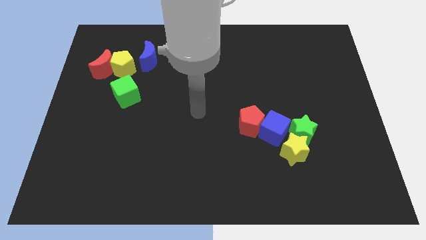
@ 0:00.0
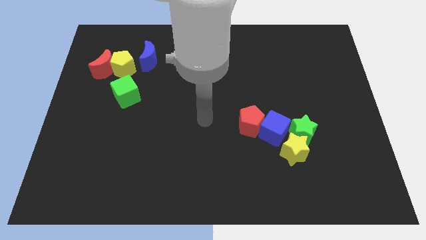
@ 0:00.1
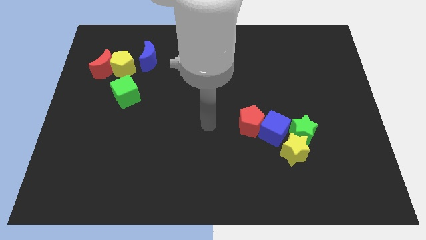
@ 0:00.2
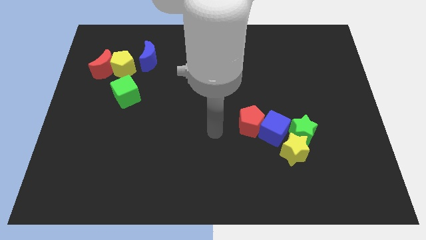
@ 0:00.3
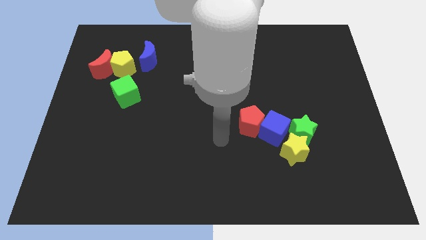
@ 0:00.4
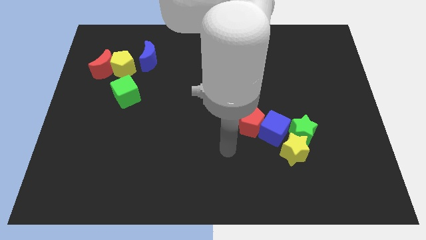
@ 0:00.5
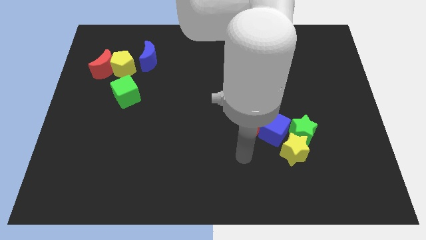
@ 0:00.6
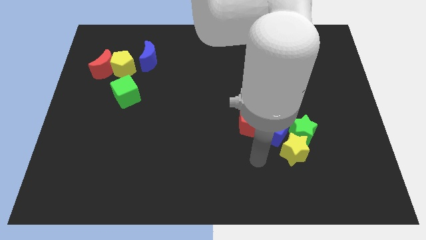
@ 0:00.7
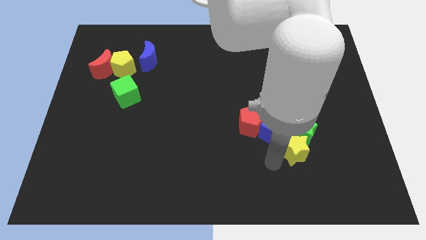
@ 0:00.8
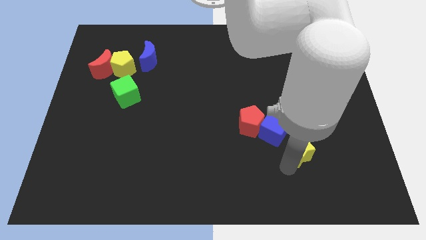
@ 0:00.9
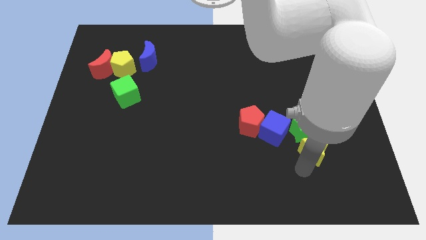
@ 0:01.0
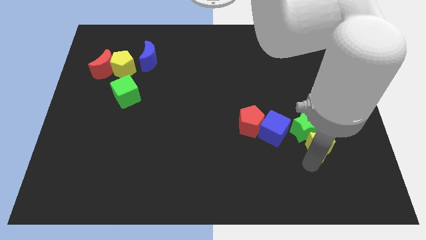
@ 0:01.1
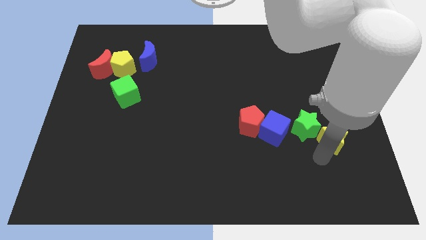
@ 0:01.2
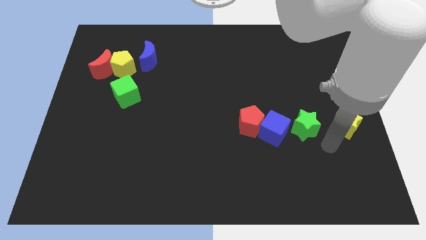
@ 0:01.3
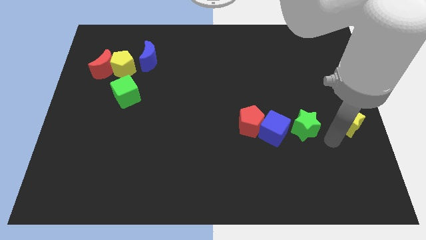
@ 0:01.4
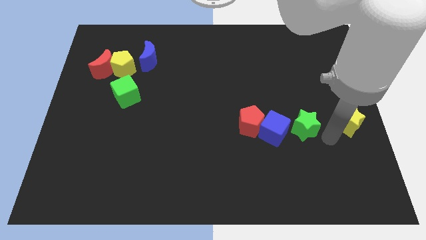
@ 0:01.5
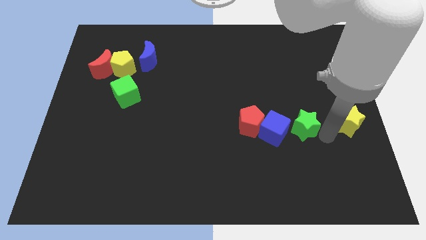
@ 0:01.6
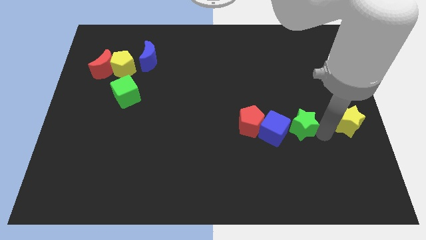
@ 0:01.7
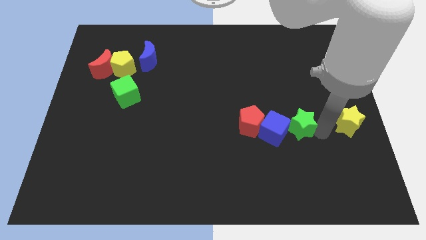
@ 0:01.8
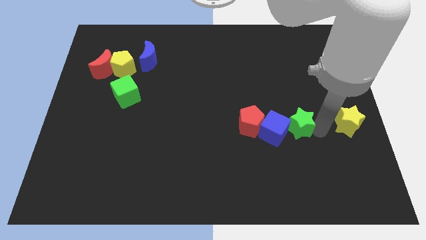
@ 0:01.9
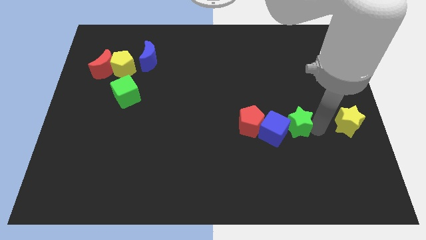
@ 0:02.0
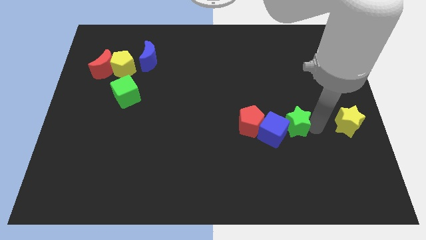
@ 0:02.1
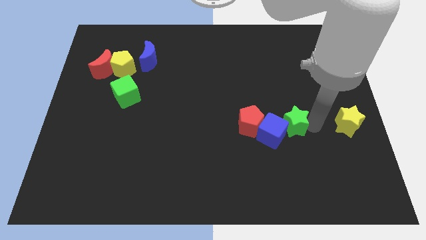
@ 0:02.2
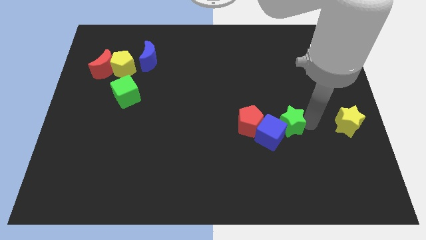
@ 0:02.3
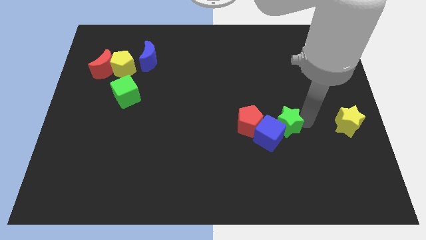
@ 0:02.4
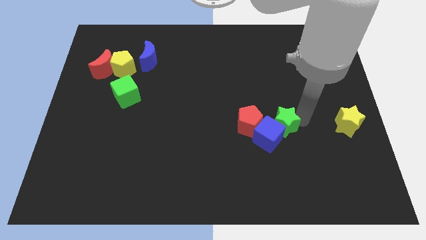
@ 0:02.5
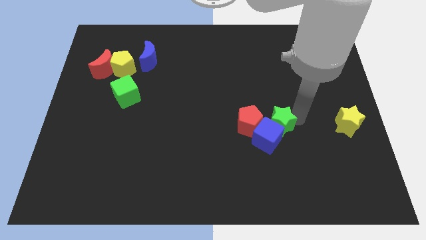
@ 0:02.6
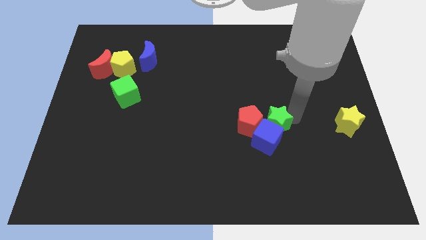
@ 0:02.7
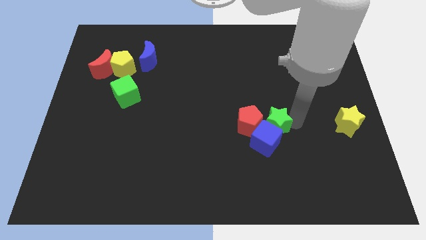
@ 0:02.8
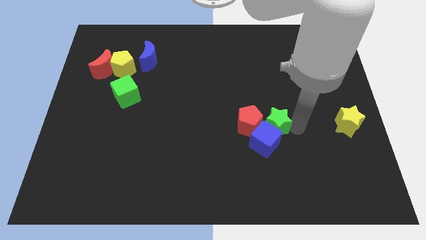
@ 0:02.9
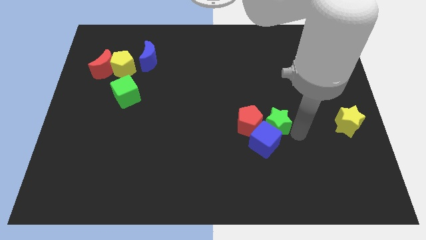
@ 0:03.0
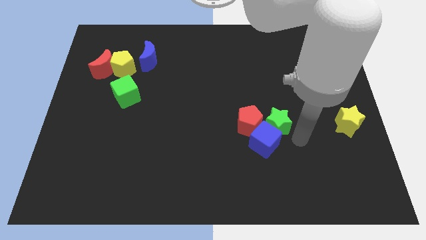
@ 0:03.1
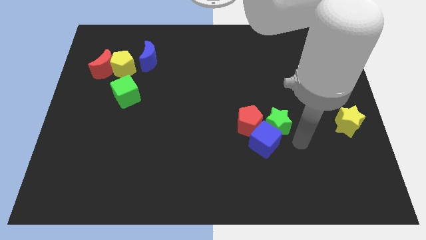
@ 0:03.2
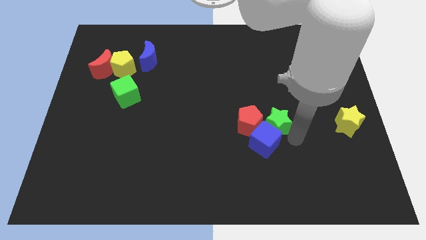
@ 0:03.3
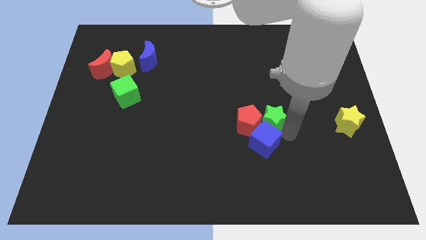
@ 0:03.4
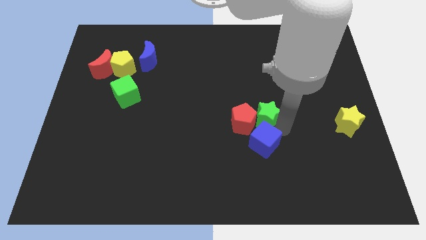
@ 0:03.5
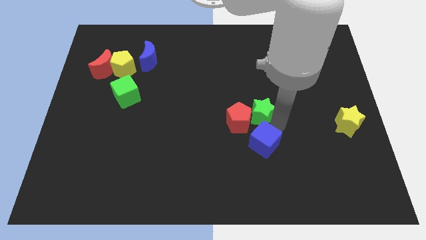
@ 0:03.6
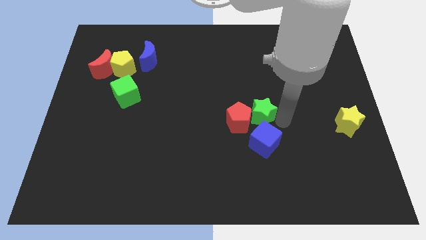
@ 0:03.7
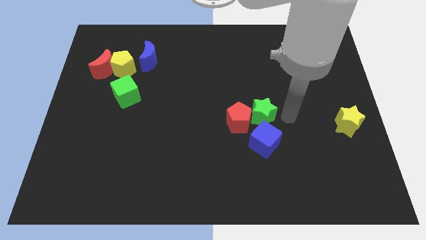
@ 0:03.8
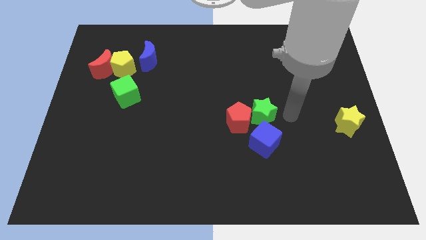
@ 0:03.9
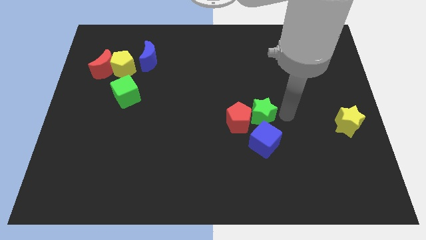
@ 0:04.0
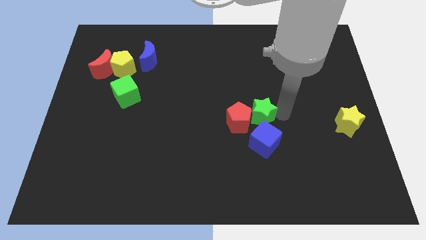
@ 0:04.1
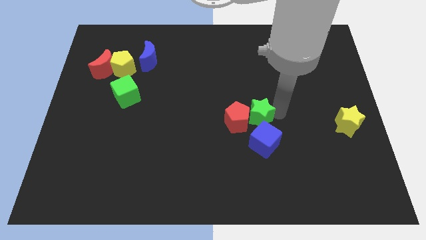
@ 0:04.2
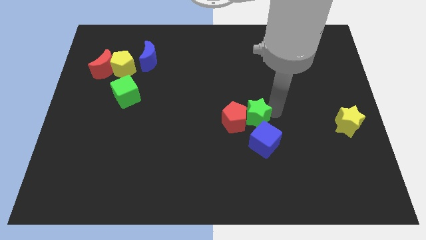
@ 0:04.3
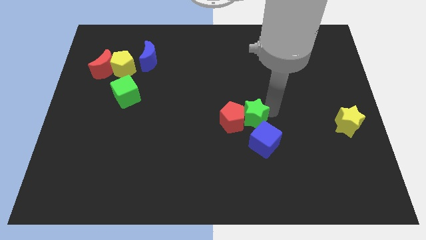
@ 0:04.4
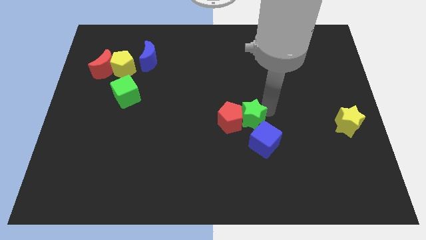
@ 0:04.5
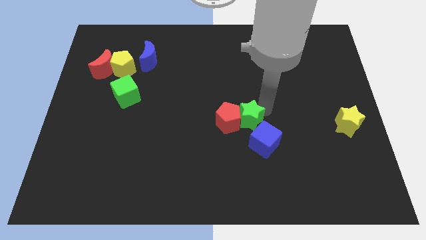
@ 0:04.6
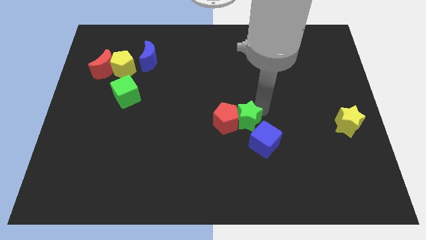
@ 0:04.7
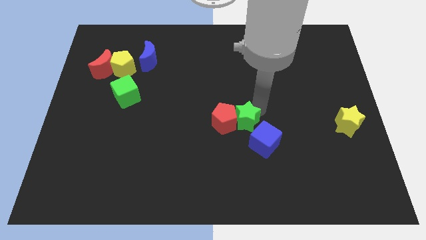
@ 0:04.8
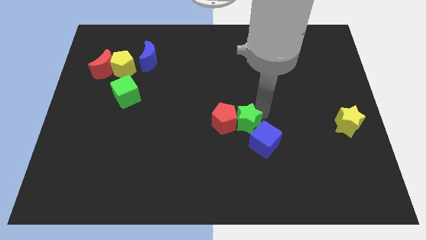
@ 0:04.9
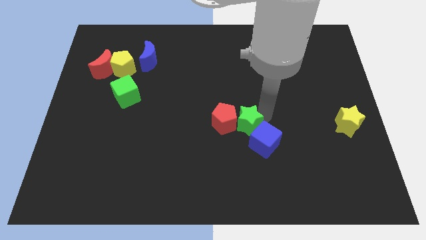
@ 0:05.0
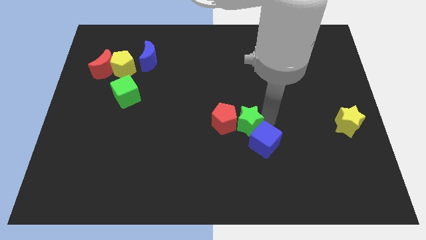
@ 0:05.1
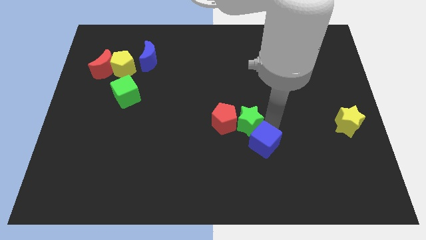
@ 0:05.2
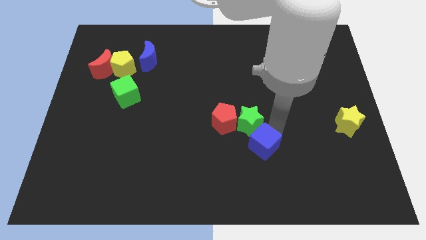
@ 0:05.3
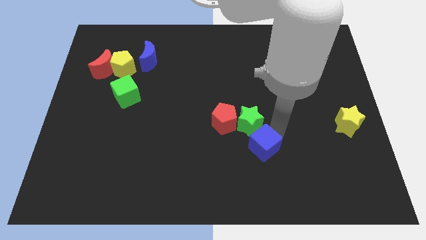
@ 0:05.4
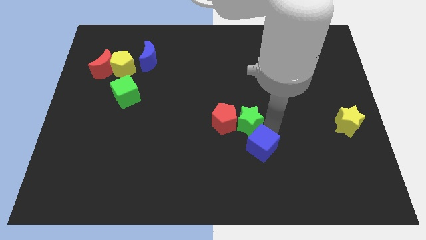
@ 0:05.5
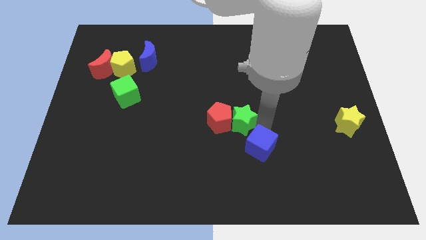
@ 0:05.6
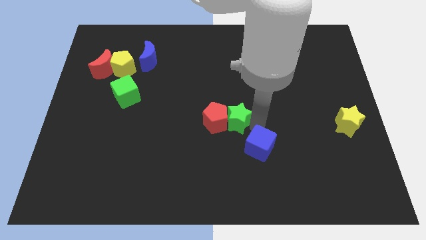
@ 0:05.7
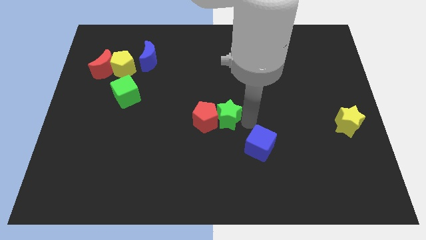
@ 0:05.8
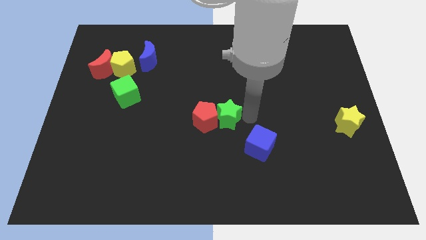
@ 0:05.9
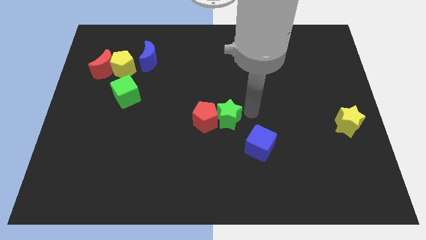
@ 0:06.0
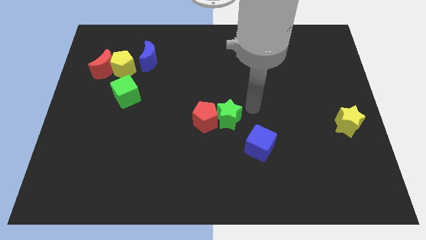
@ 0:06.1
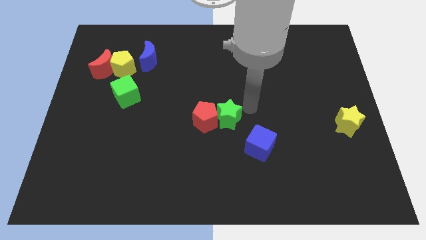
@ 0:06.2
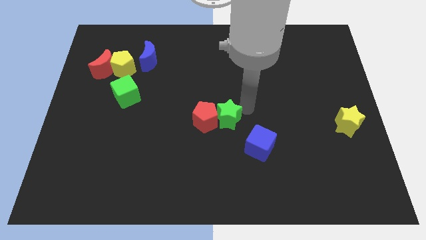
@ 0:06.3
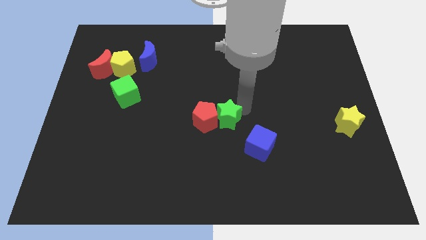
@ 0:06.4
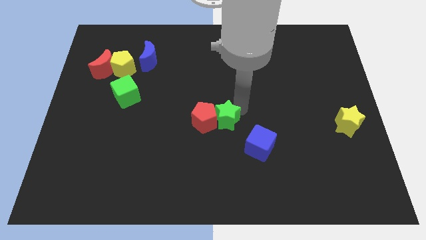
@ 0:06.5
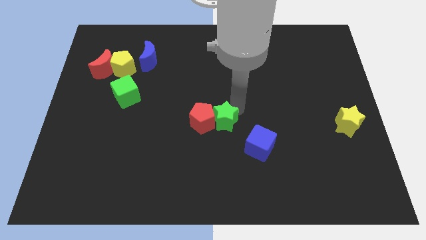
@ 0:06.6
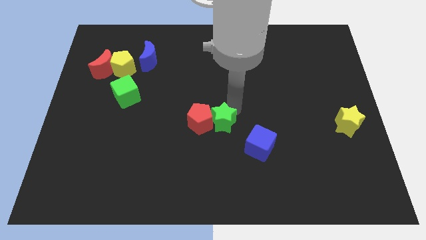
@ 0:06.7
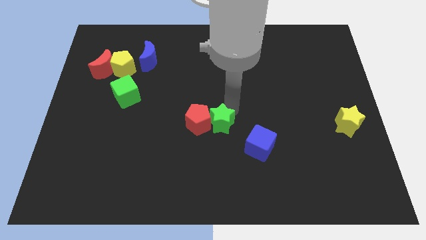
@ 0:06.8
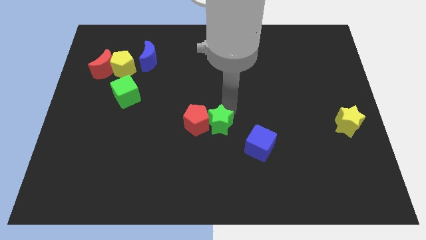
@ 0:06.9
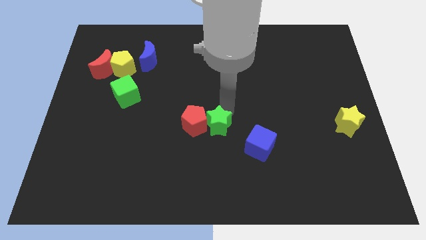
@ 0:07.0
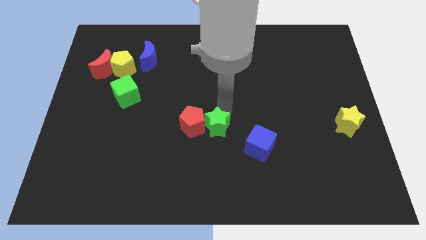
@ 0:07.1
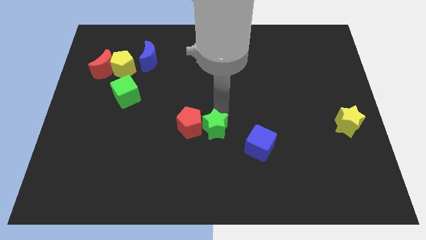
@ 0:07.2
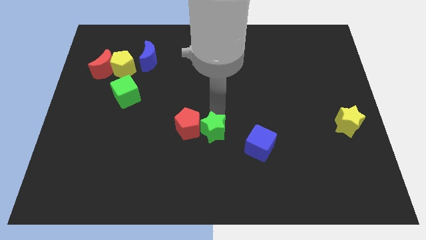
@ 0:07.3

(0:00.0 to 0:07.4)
slide the green star to the left

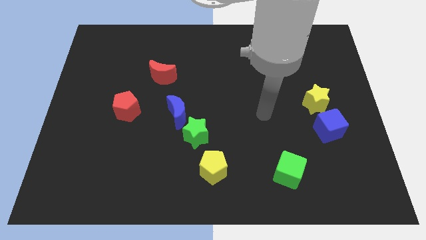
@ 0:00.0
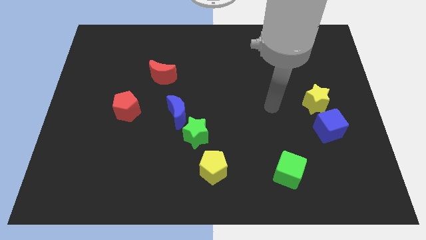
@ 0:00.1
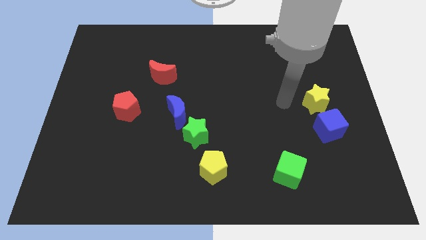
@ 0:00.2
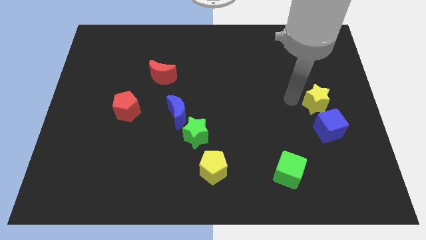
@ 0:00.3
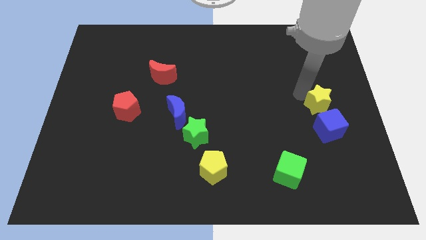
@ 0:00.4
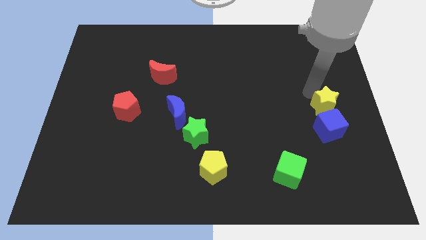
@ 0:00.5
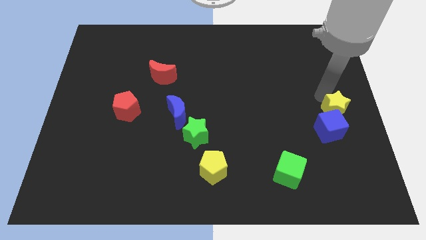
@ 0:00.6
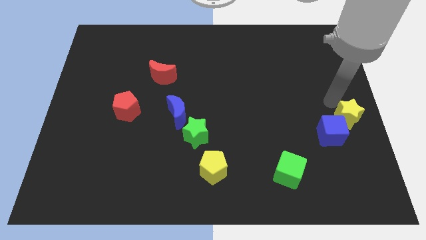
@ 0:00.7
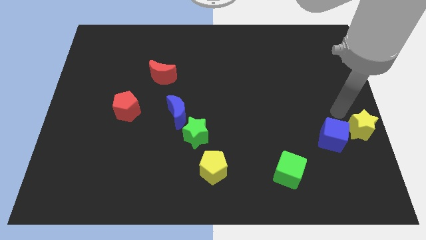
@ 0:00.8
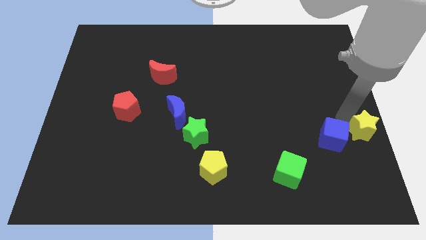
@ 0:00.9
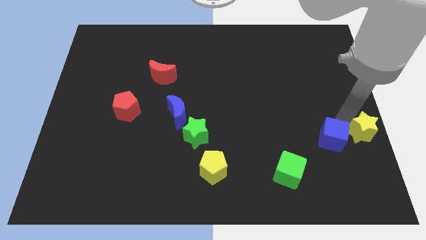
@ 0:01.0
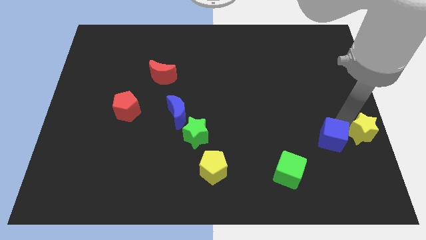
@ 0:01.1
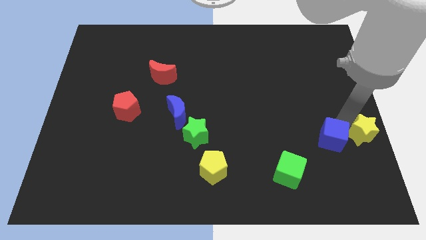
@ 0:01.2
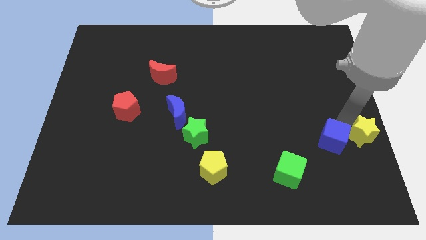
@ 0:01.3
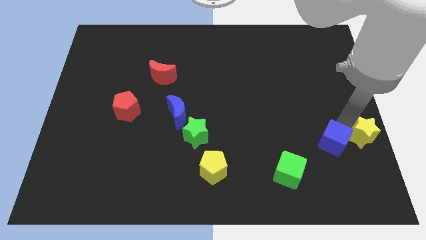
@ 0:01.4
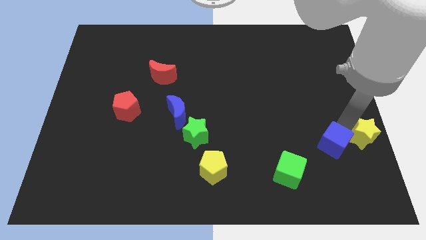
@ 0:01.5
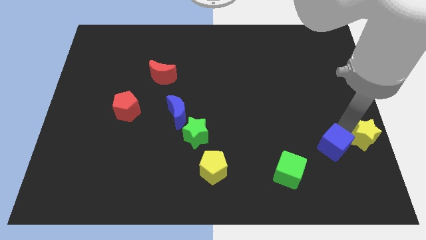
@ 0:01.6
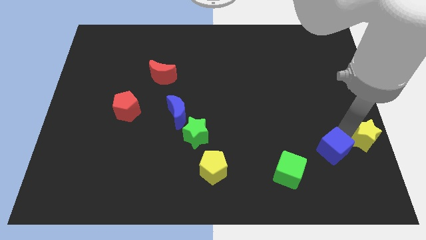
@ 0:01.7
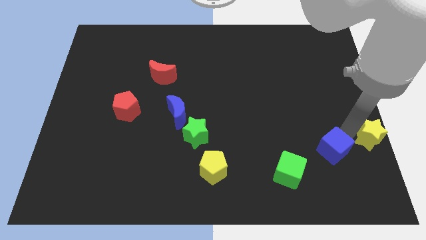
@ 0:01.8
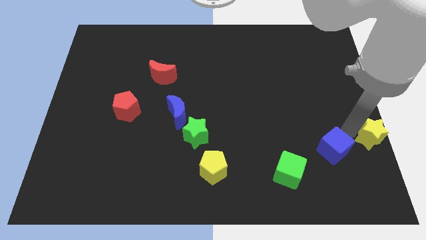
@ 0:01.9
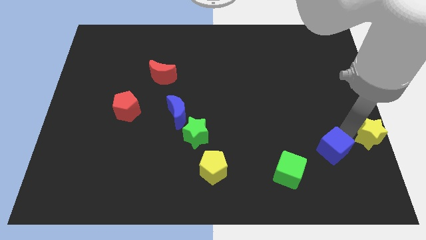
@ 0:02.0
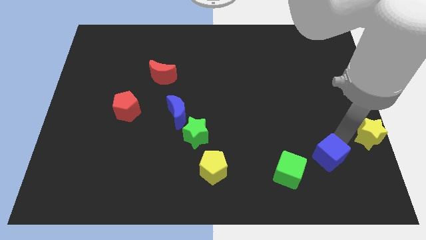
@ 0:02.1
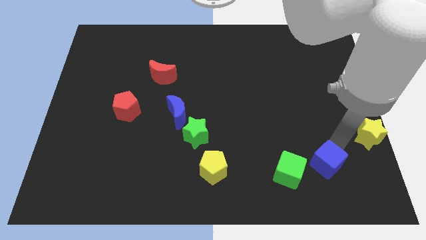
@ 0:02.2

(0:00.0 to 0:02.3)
slide the blue cube a little down and left diagonally
